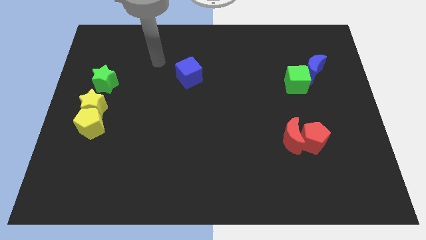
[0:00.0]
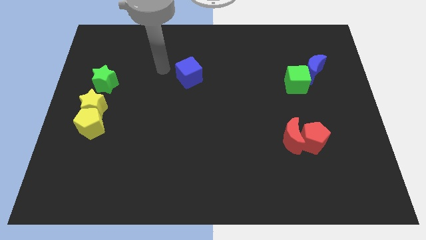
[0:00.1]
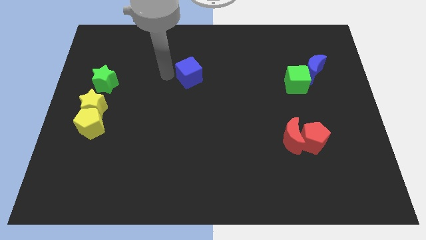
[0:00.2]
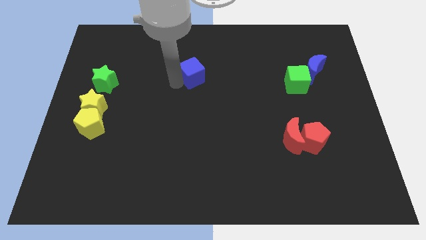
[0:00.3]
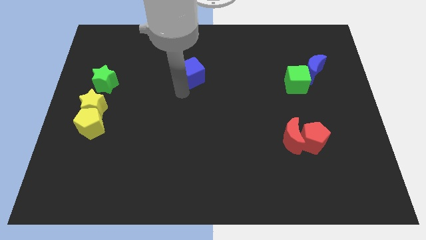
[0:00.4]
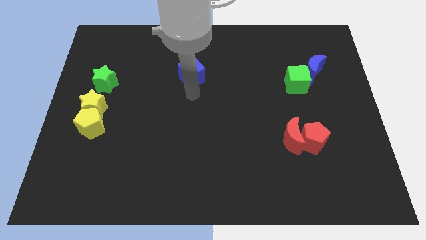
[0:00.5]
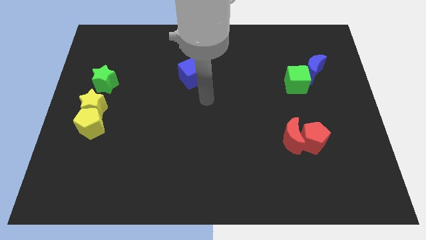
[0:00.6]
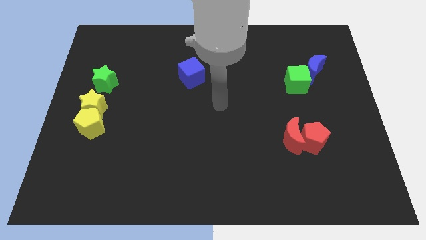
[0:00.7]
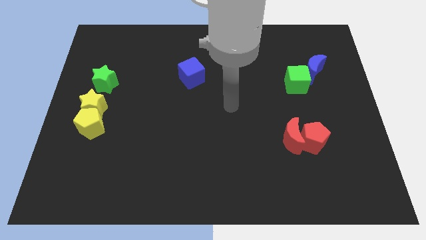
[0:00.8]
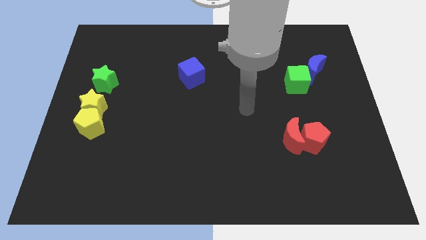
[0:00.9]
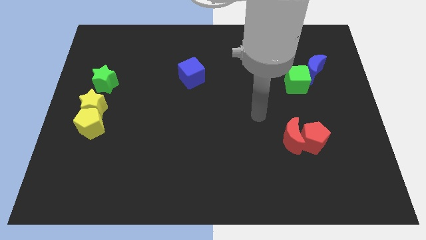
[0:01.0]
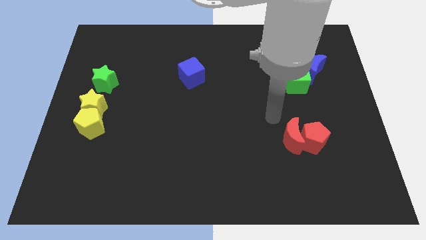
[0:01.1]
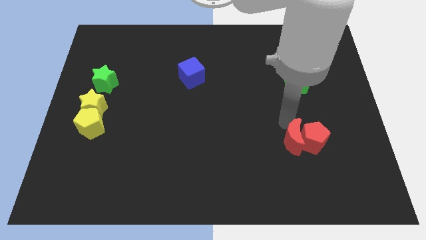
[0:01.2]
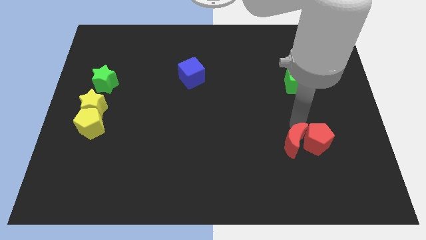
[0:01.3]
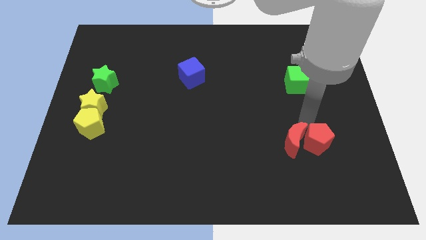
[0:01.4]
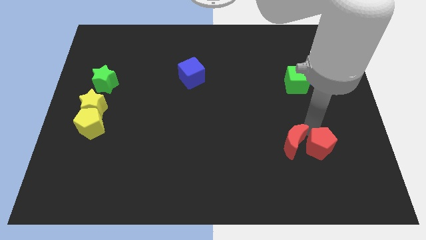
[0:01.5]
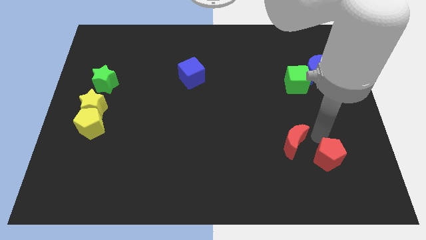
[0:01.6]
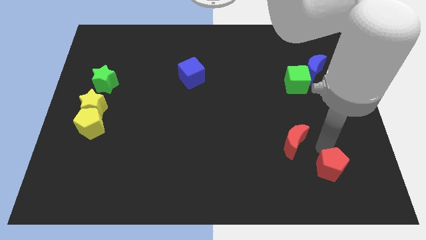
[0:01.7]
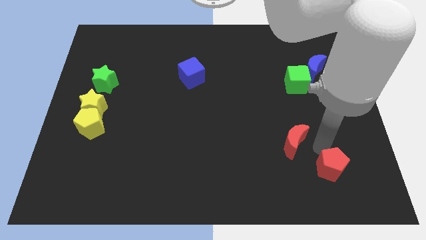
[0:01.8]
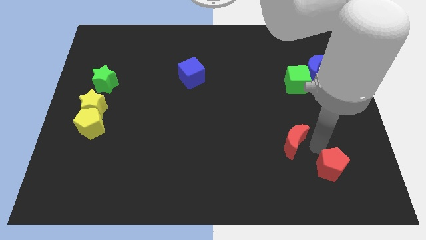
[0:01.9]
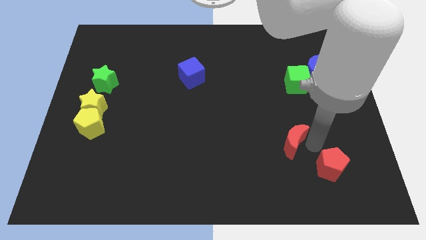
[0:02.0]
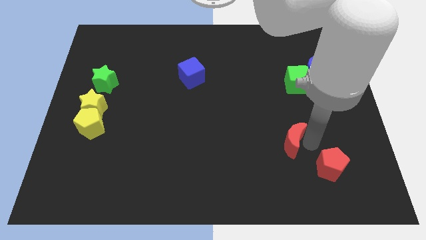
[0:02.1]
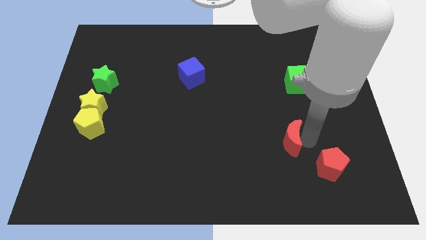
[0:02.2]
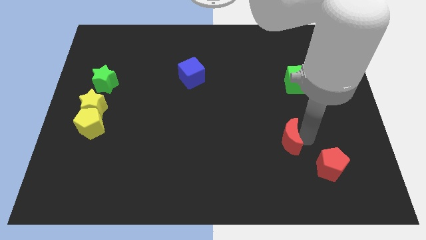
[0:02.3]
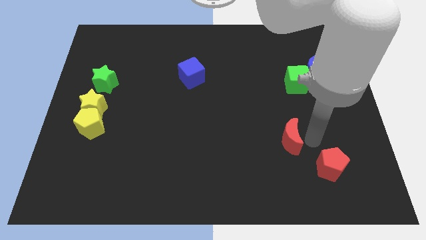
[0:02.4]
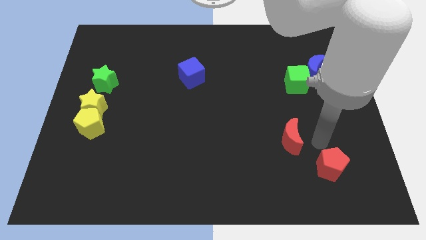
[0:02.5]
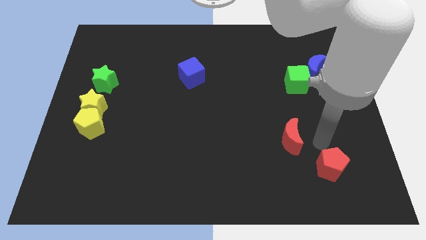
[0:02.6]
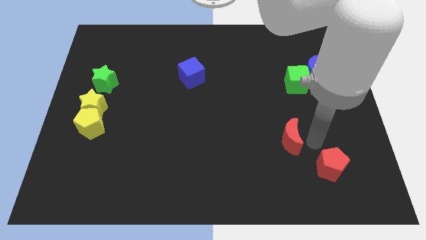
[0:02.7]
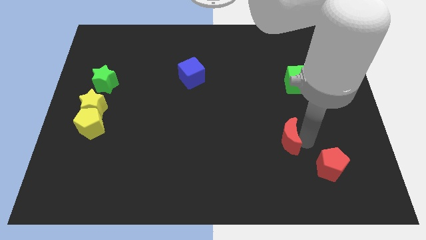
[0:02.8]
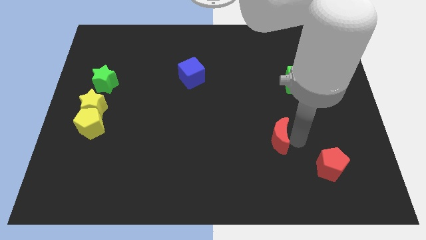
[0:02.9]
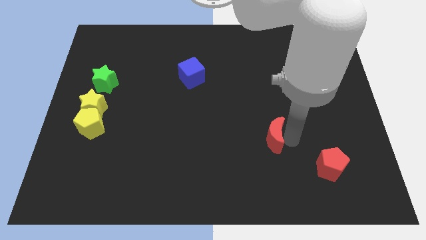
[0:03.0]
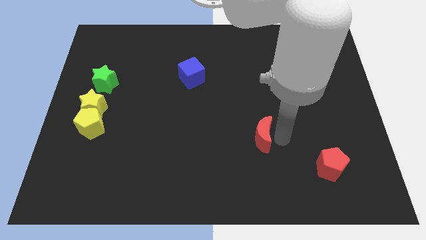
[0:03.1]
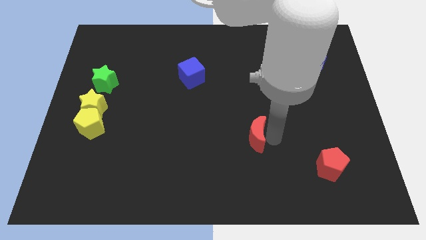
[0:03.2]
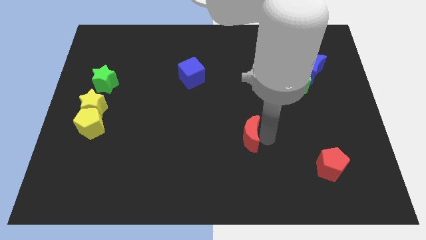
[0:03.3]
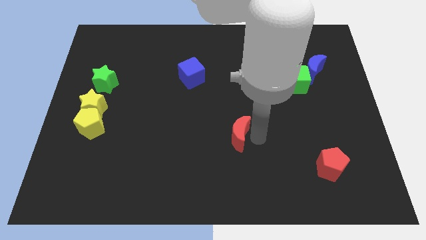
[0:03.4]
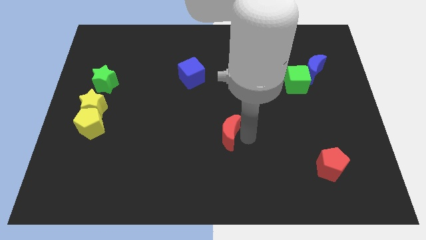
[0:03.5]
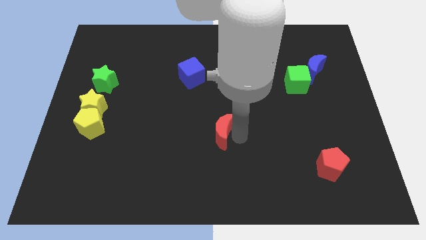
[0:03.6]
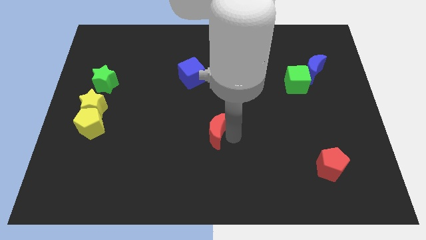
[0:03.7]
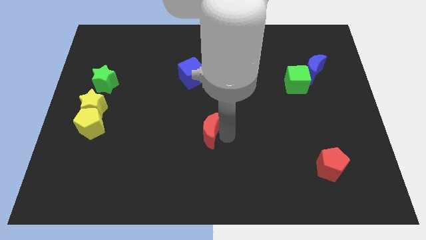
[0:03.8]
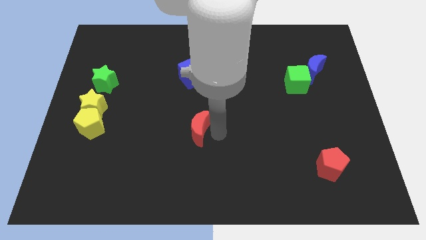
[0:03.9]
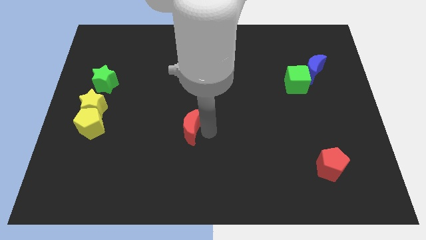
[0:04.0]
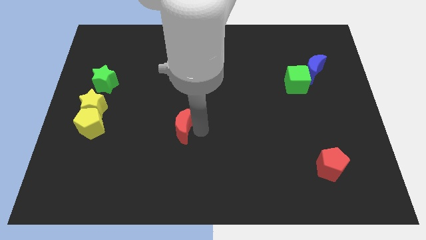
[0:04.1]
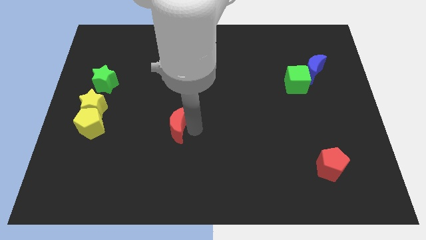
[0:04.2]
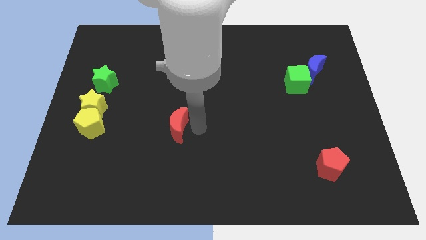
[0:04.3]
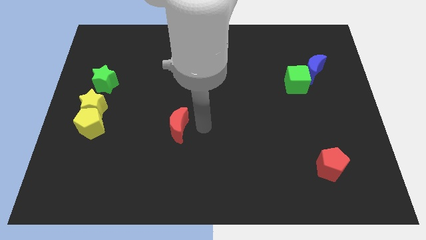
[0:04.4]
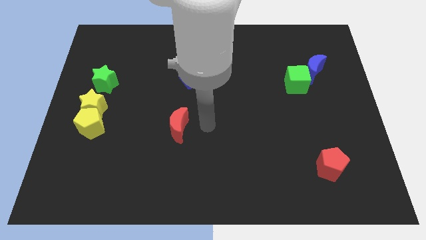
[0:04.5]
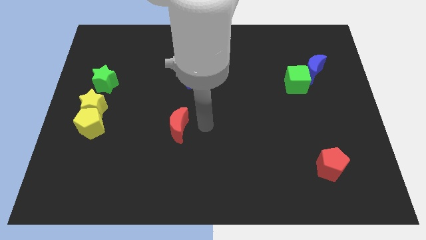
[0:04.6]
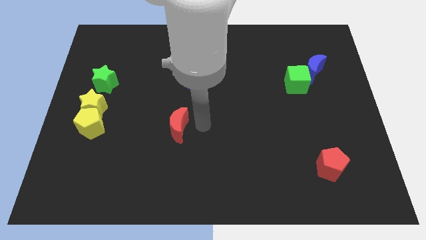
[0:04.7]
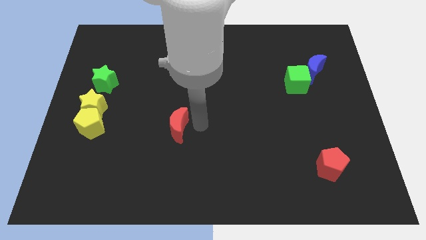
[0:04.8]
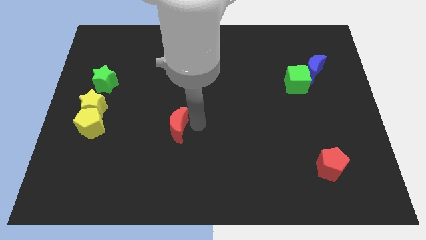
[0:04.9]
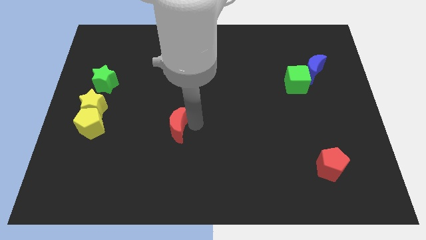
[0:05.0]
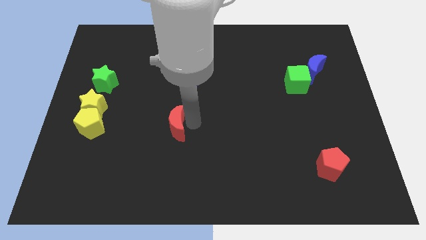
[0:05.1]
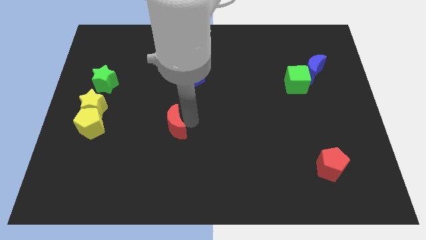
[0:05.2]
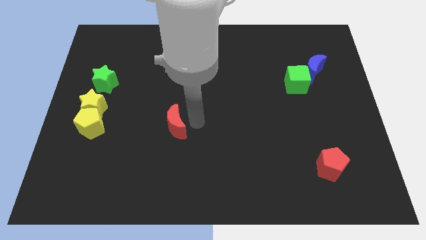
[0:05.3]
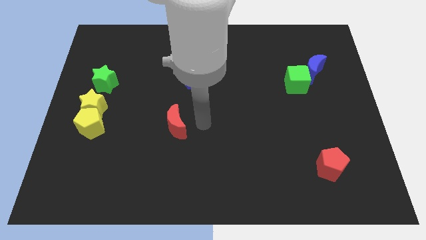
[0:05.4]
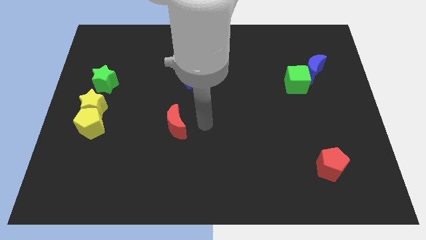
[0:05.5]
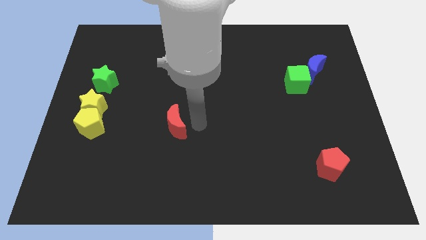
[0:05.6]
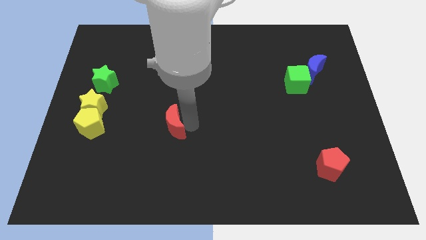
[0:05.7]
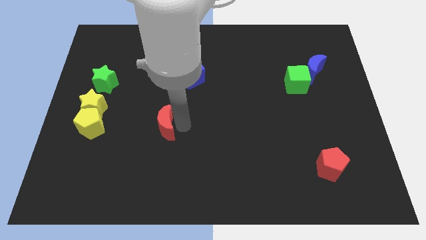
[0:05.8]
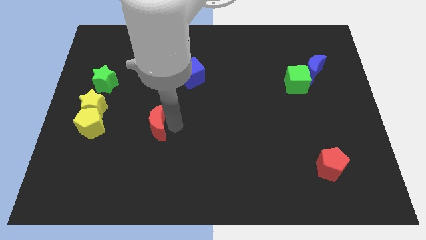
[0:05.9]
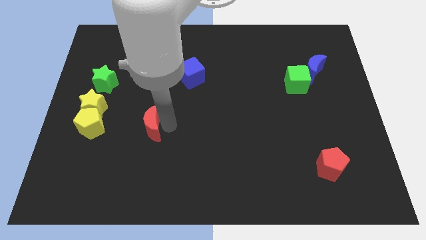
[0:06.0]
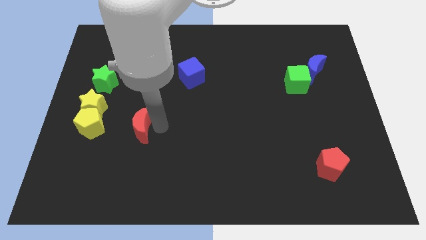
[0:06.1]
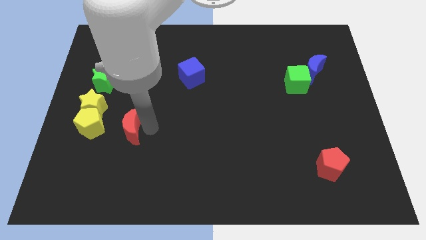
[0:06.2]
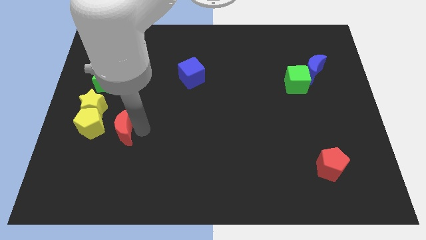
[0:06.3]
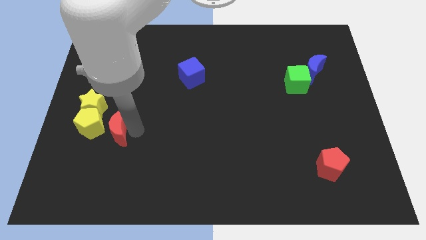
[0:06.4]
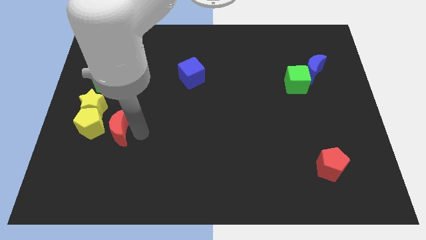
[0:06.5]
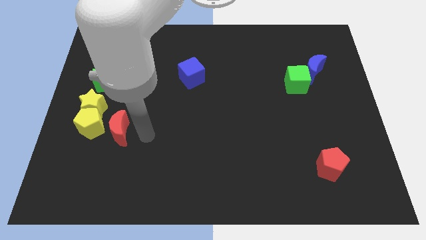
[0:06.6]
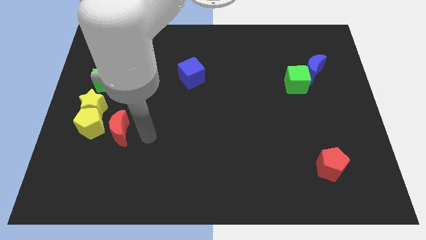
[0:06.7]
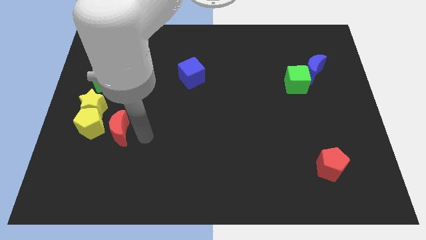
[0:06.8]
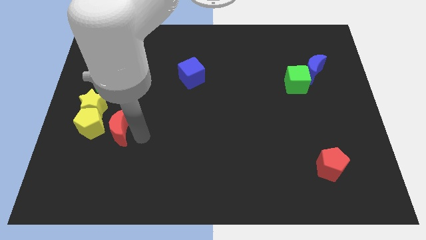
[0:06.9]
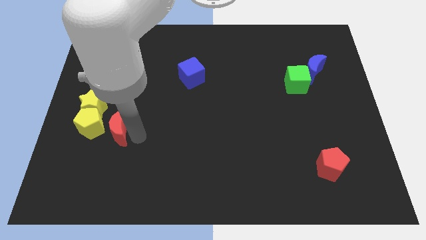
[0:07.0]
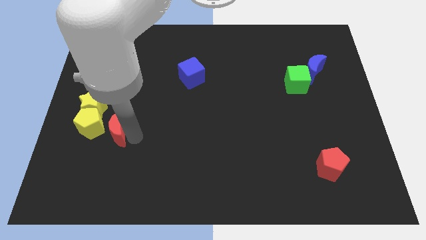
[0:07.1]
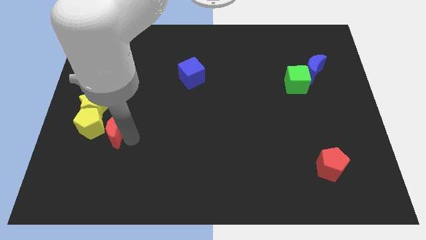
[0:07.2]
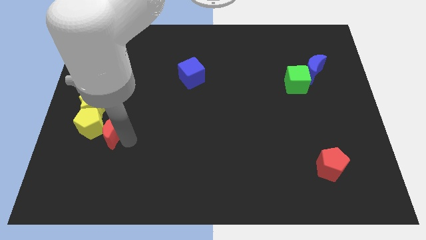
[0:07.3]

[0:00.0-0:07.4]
put the red moon to the yellow pentagon
